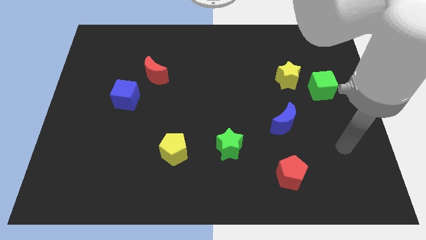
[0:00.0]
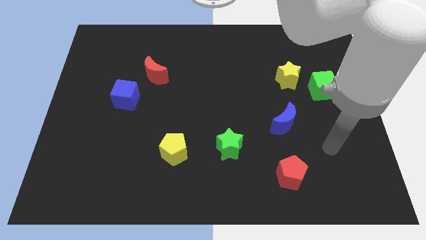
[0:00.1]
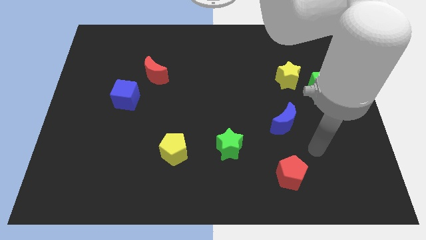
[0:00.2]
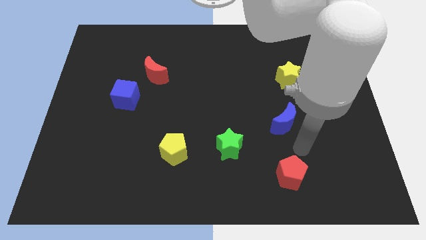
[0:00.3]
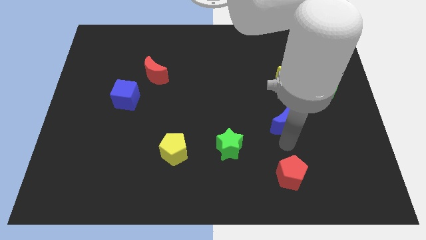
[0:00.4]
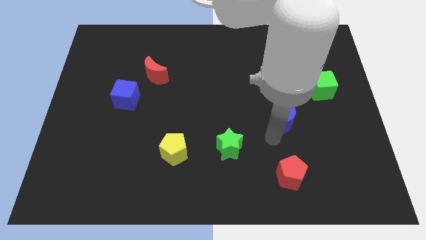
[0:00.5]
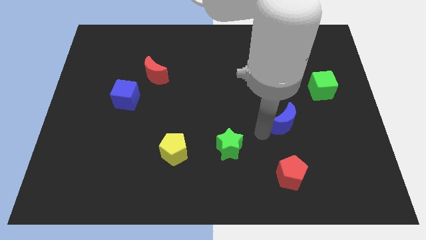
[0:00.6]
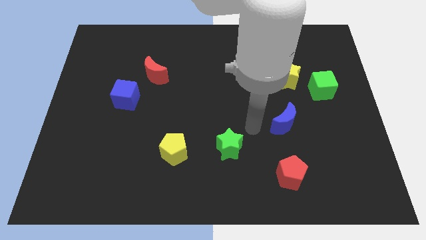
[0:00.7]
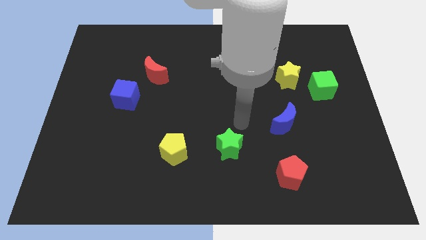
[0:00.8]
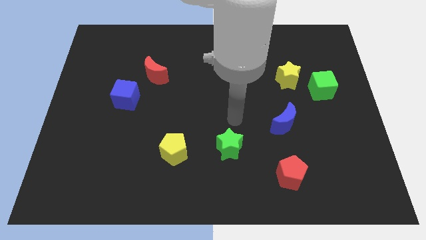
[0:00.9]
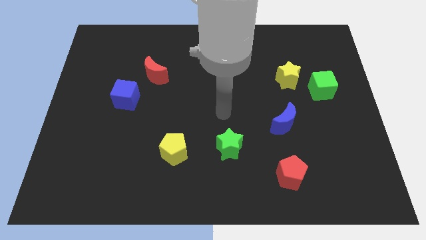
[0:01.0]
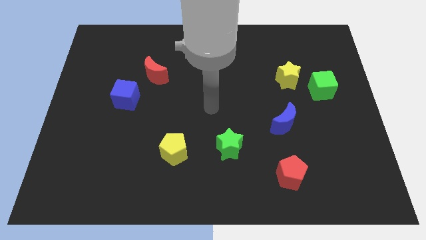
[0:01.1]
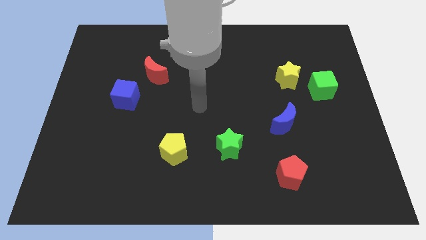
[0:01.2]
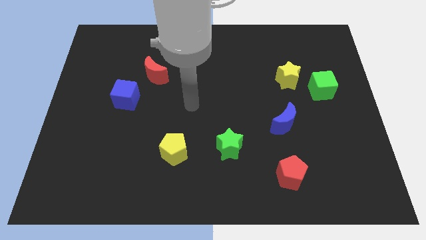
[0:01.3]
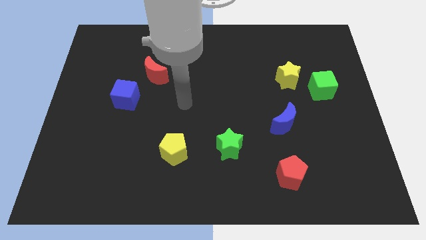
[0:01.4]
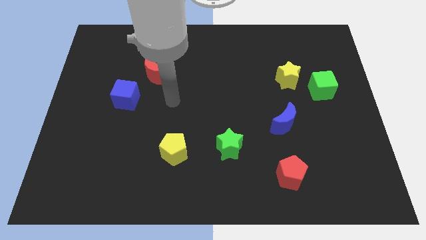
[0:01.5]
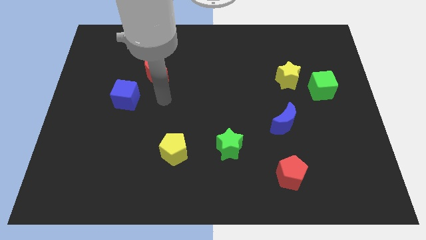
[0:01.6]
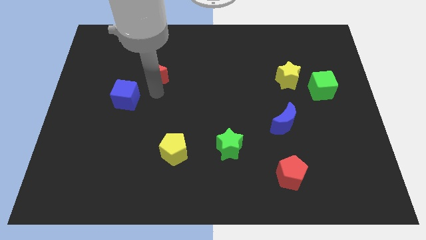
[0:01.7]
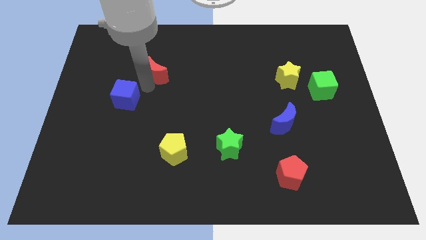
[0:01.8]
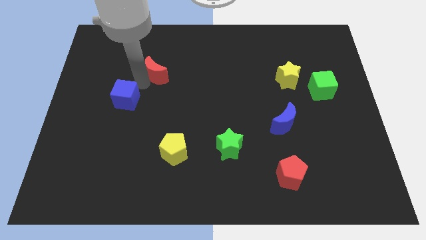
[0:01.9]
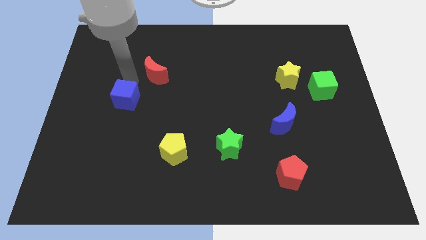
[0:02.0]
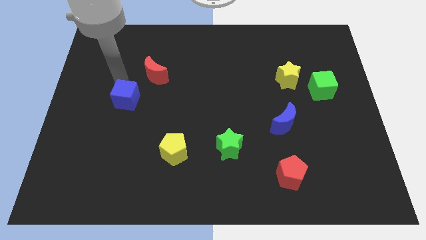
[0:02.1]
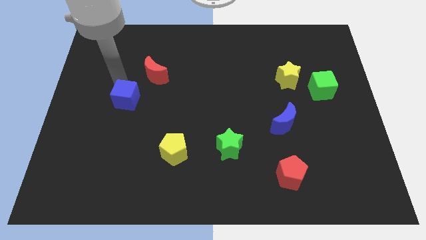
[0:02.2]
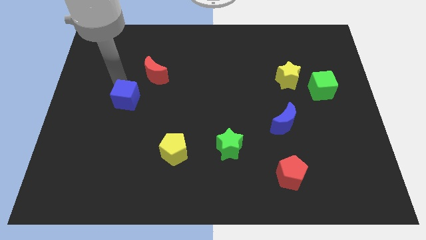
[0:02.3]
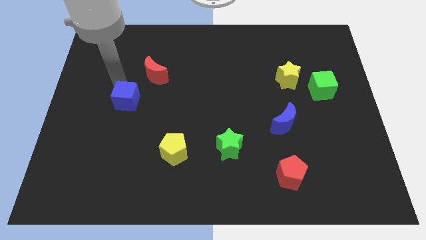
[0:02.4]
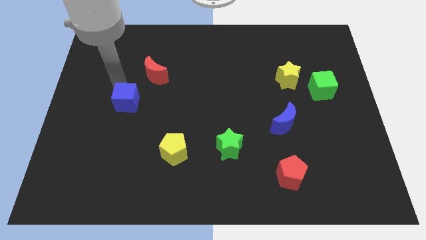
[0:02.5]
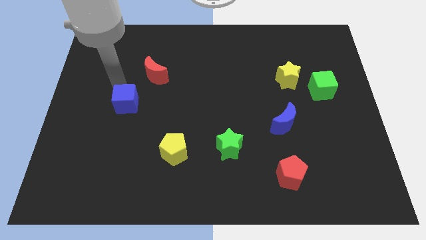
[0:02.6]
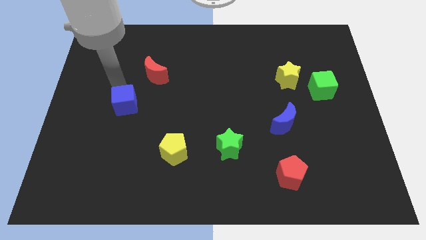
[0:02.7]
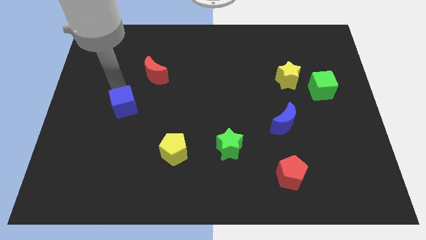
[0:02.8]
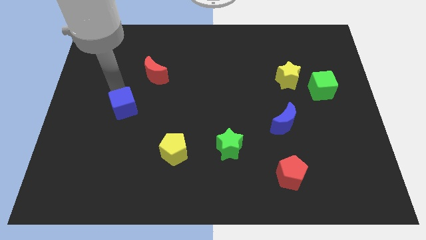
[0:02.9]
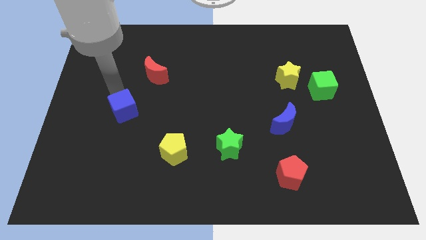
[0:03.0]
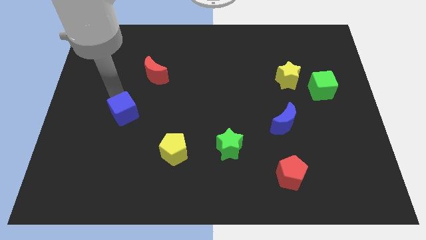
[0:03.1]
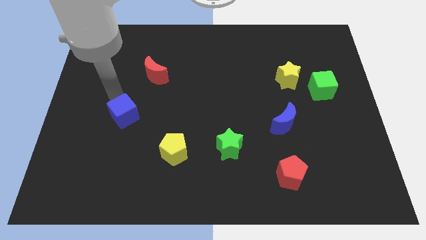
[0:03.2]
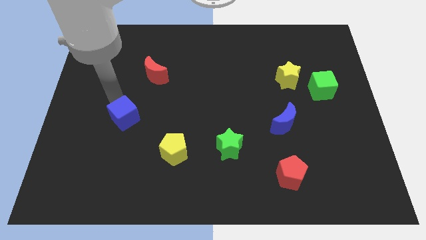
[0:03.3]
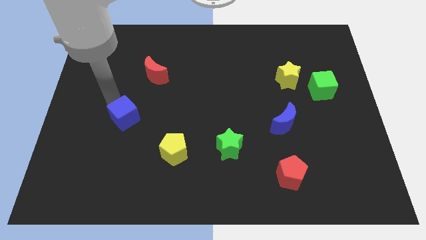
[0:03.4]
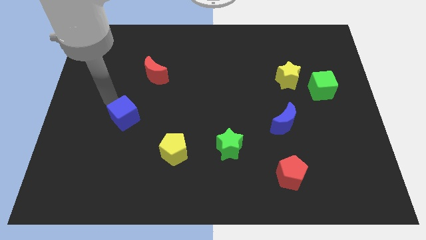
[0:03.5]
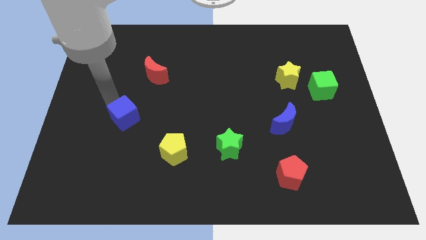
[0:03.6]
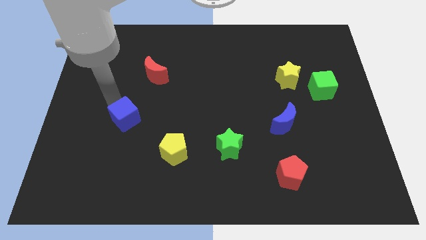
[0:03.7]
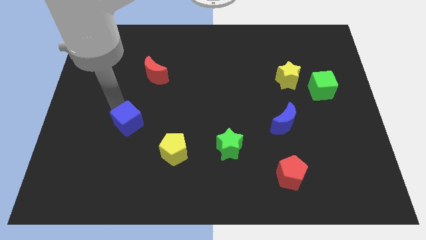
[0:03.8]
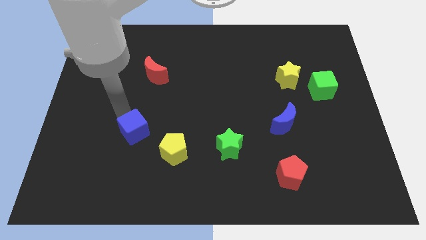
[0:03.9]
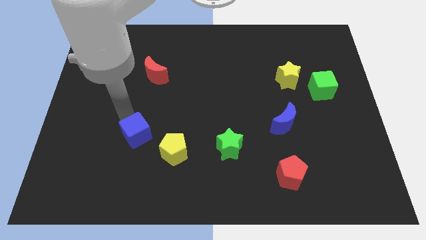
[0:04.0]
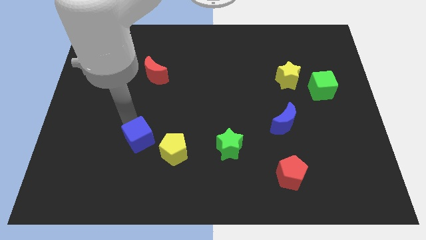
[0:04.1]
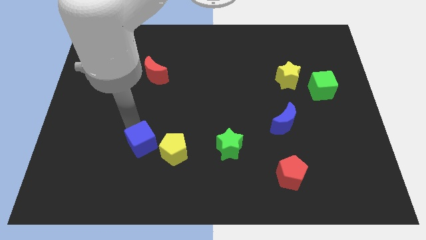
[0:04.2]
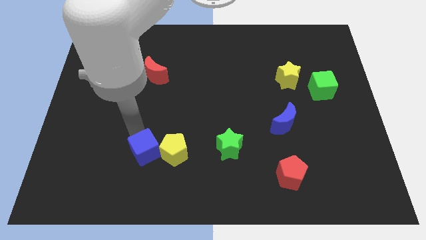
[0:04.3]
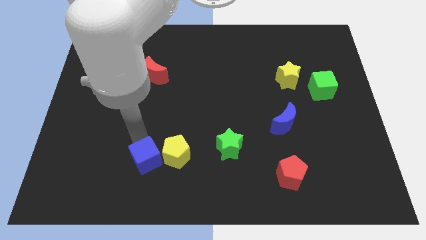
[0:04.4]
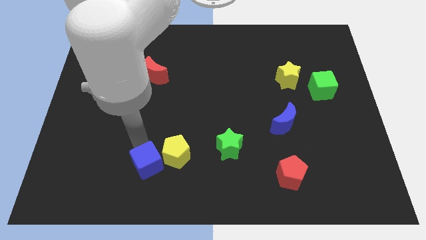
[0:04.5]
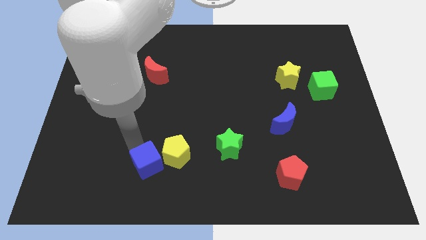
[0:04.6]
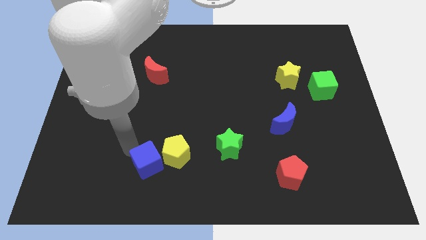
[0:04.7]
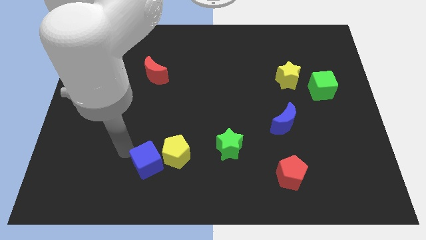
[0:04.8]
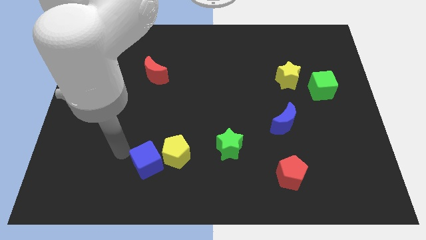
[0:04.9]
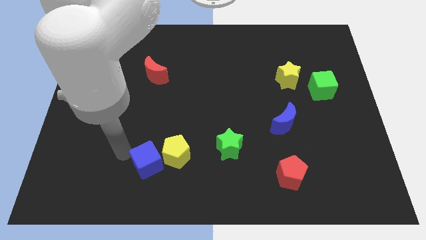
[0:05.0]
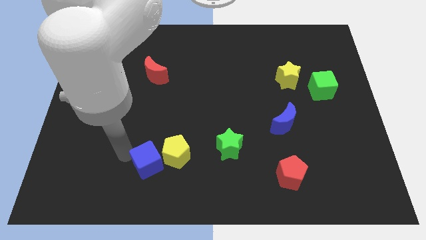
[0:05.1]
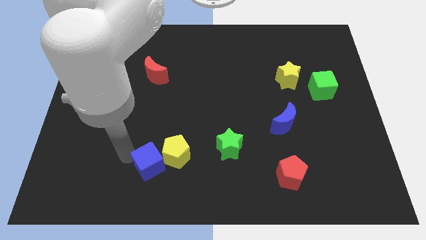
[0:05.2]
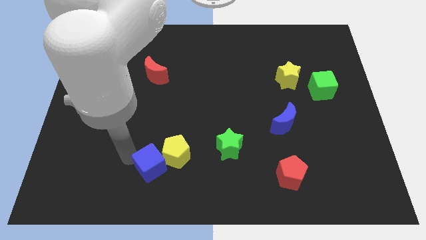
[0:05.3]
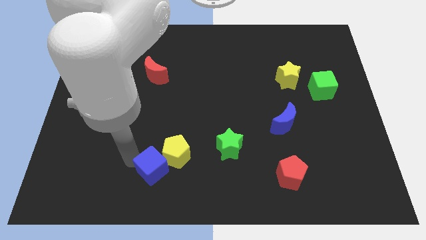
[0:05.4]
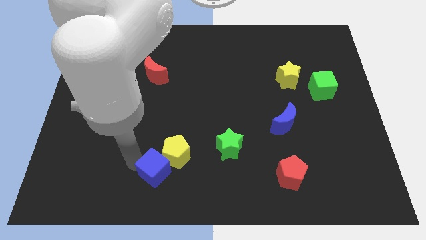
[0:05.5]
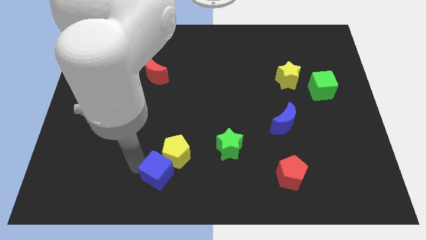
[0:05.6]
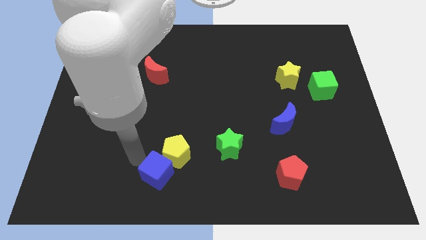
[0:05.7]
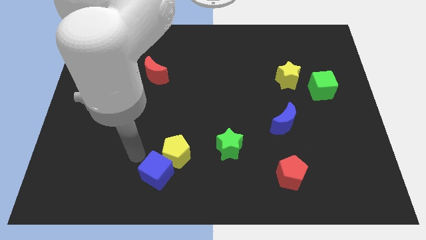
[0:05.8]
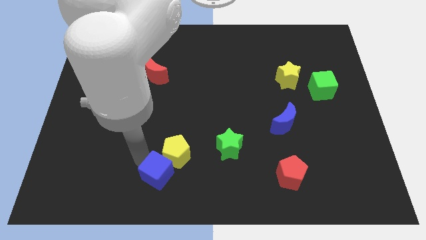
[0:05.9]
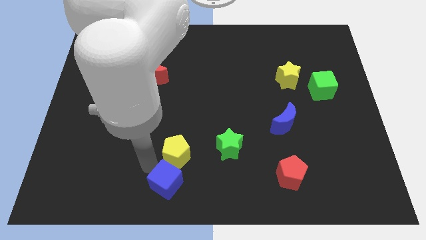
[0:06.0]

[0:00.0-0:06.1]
move the blue cube to the bottom
